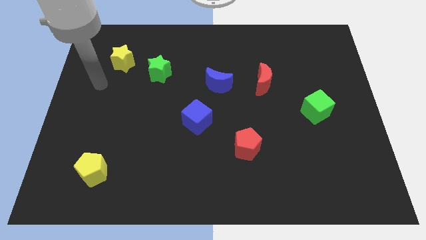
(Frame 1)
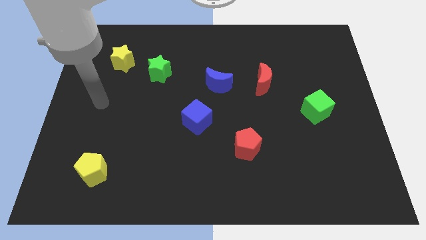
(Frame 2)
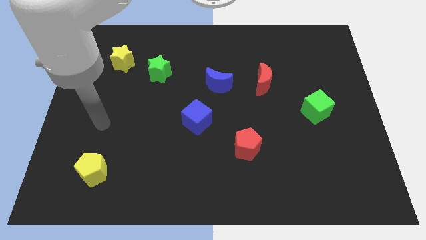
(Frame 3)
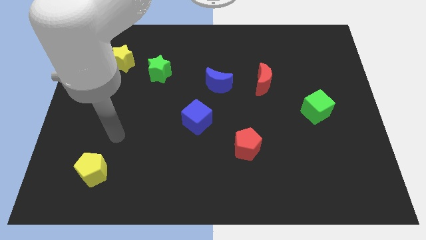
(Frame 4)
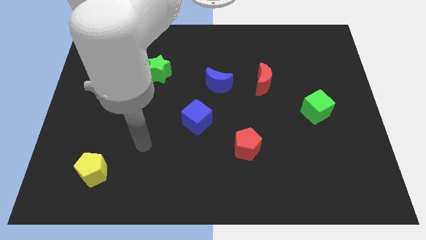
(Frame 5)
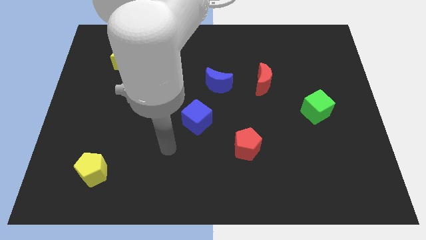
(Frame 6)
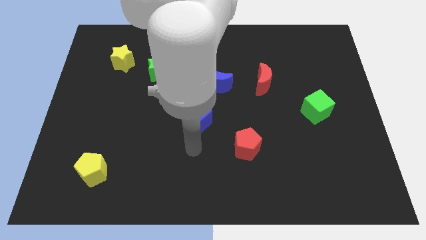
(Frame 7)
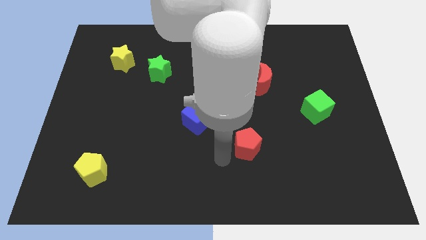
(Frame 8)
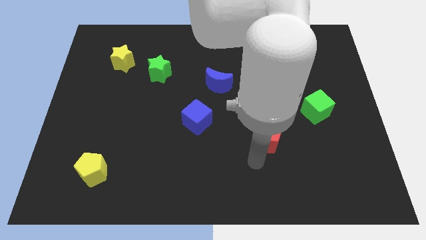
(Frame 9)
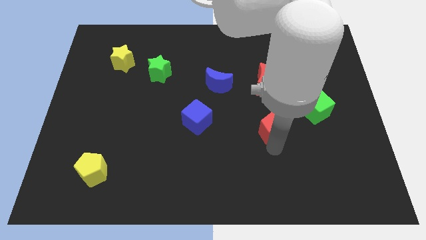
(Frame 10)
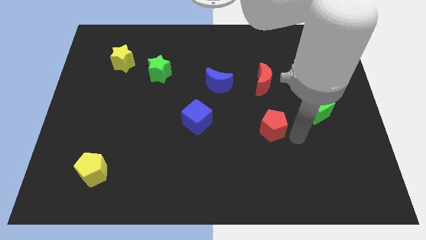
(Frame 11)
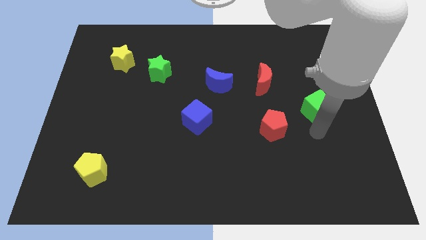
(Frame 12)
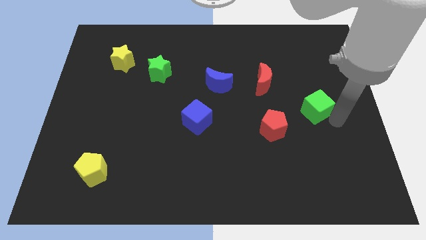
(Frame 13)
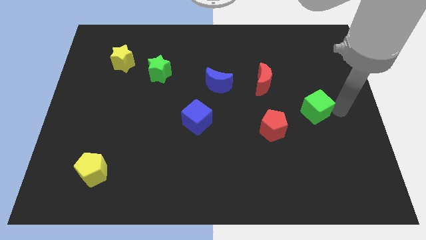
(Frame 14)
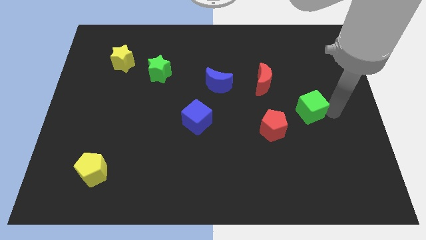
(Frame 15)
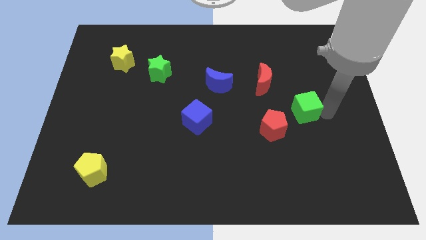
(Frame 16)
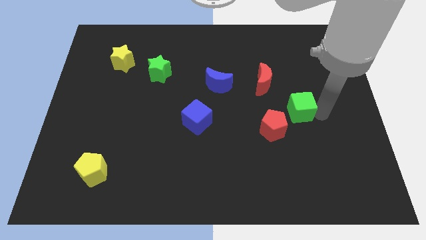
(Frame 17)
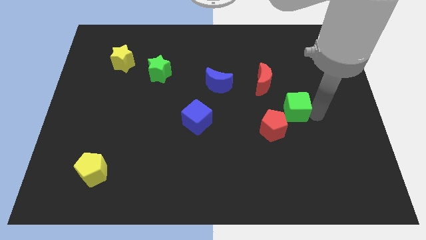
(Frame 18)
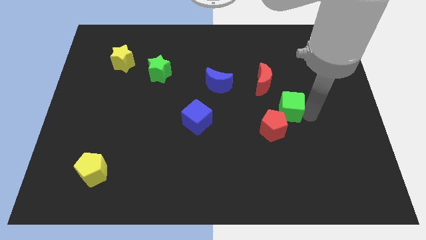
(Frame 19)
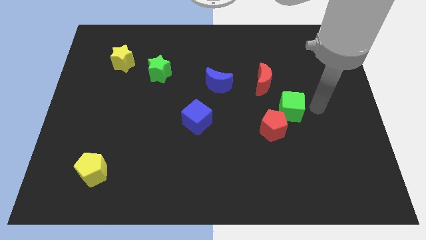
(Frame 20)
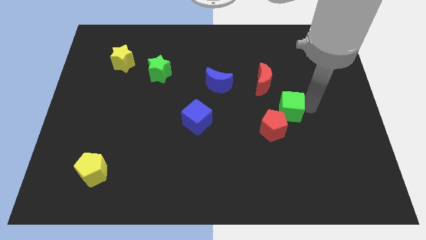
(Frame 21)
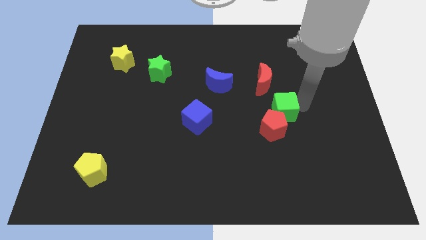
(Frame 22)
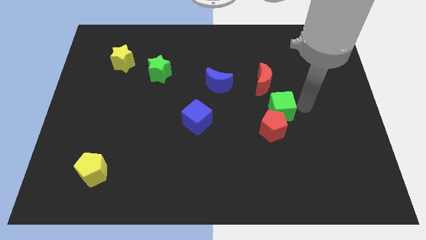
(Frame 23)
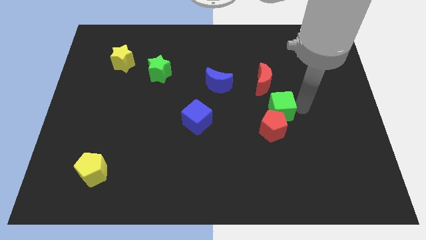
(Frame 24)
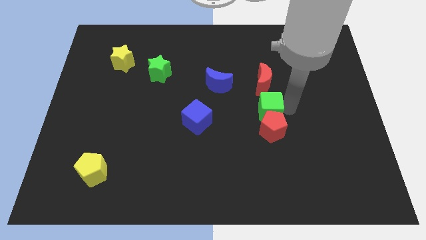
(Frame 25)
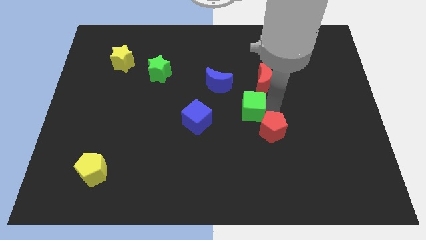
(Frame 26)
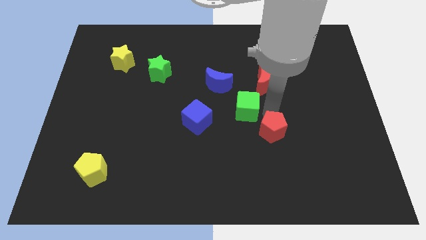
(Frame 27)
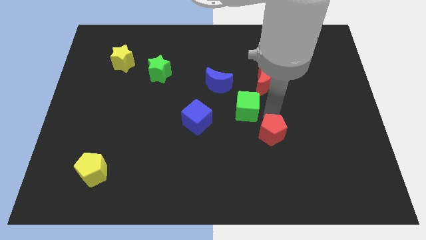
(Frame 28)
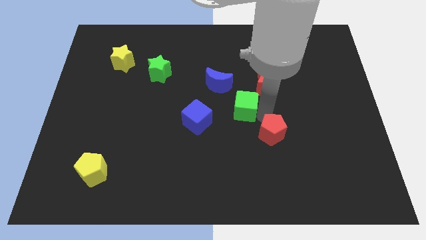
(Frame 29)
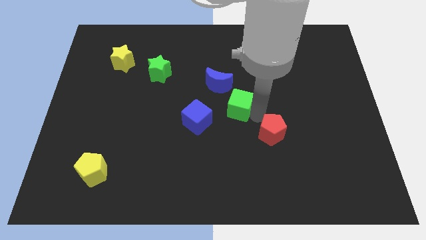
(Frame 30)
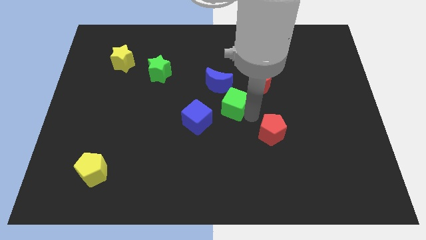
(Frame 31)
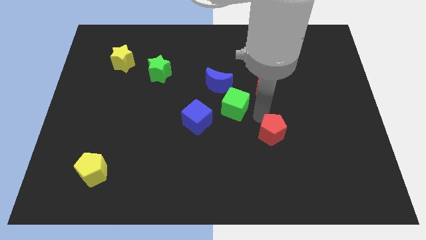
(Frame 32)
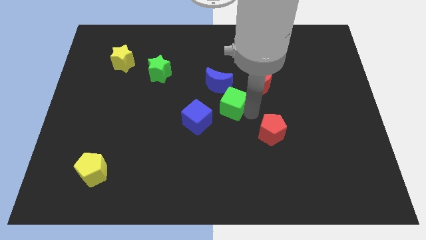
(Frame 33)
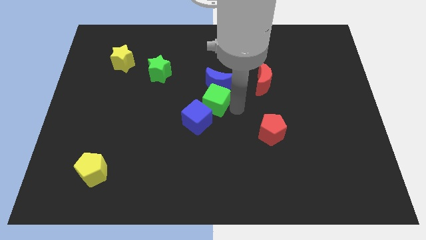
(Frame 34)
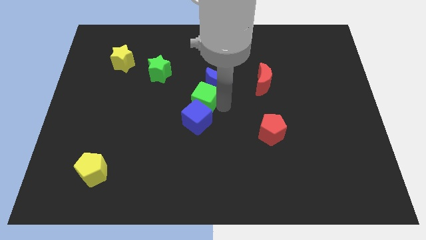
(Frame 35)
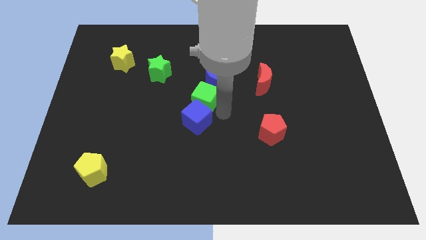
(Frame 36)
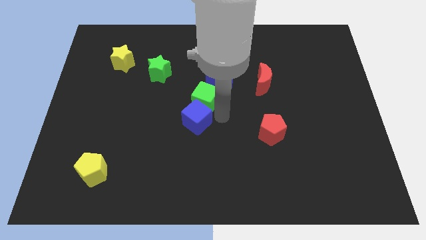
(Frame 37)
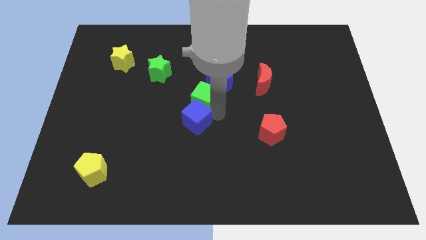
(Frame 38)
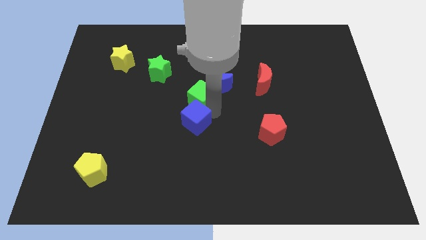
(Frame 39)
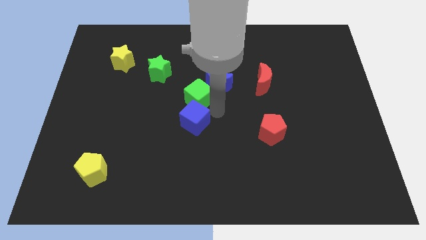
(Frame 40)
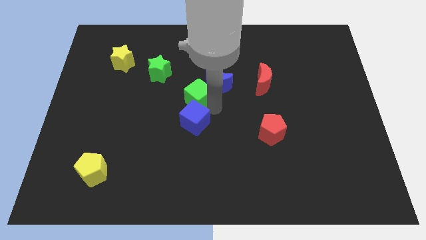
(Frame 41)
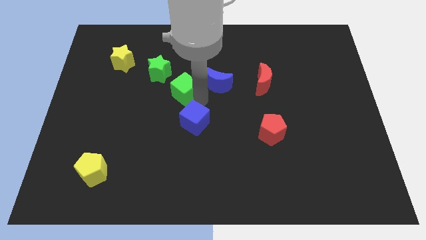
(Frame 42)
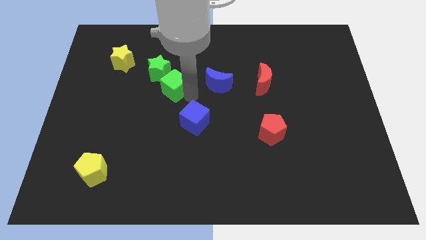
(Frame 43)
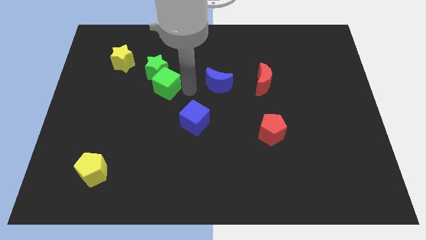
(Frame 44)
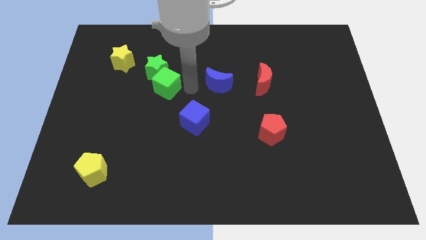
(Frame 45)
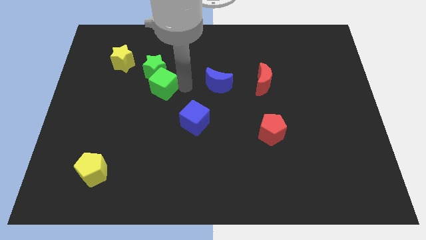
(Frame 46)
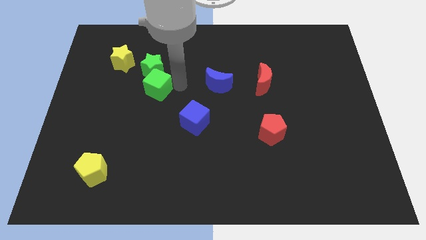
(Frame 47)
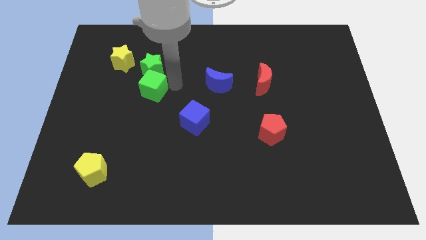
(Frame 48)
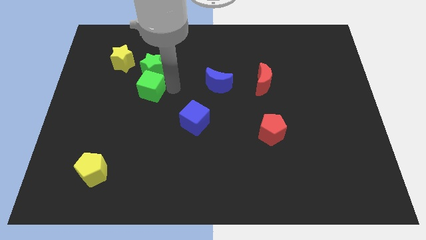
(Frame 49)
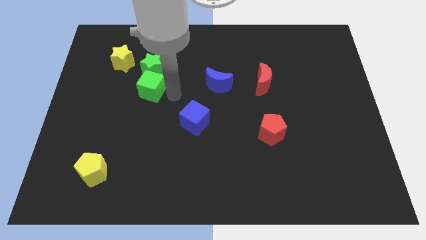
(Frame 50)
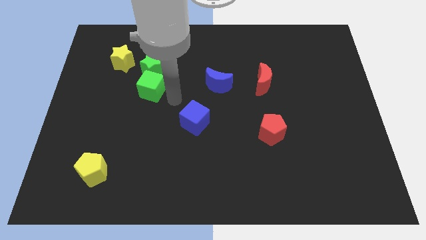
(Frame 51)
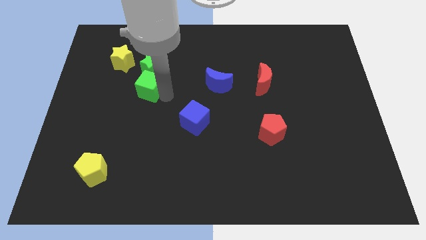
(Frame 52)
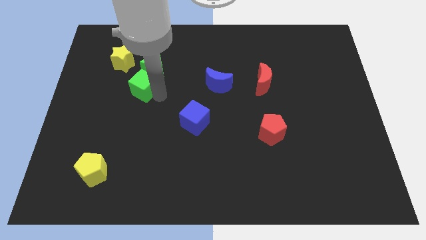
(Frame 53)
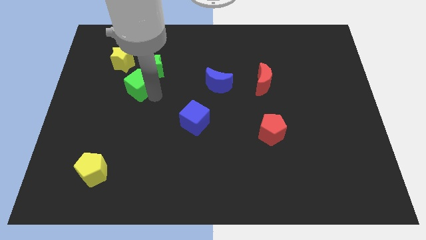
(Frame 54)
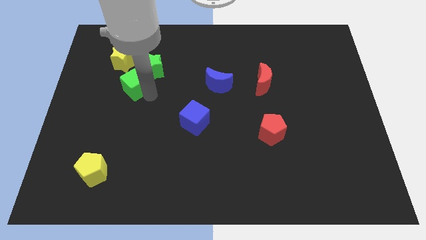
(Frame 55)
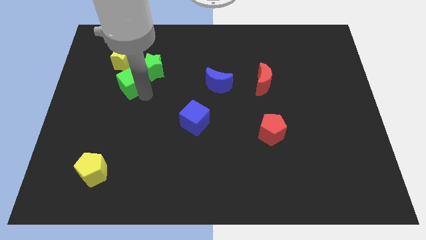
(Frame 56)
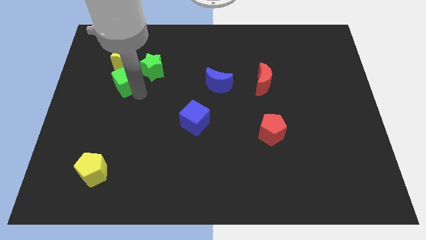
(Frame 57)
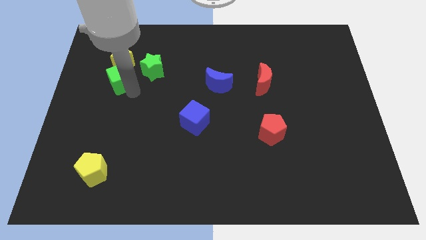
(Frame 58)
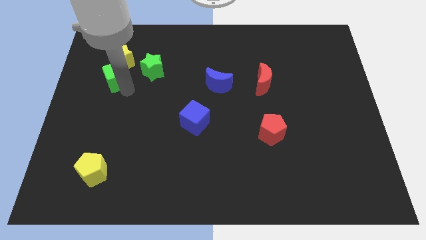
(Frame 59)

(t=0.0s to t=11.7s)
slide the green cube close to the yellow star
